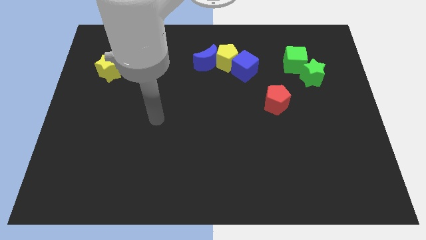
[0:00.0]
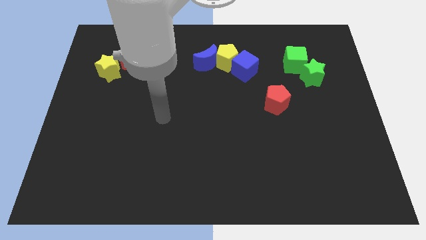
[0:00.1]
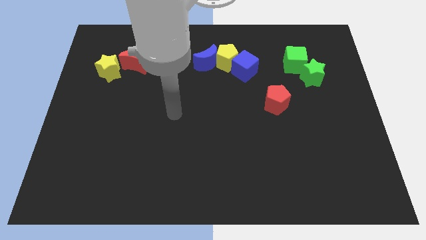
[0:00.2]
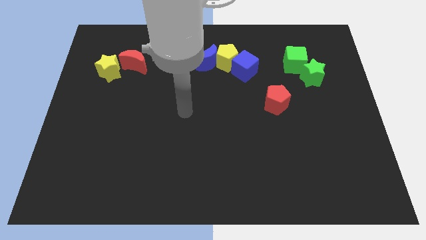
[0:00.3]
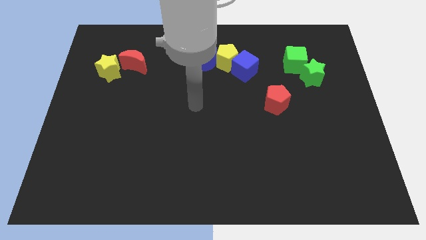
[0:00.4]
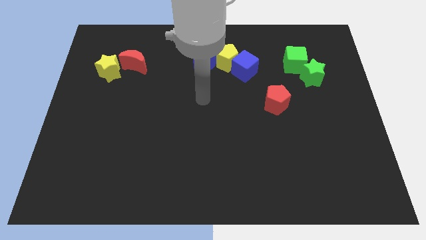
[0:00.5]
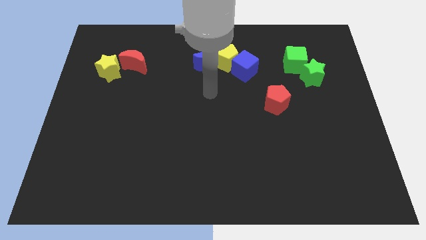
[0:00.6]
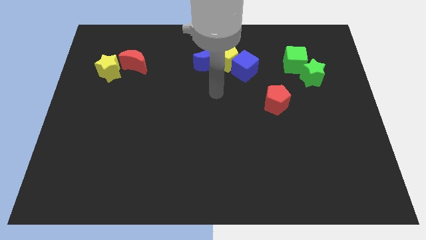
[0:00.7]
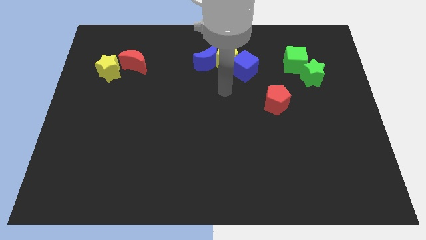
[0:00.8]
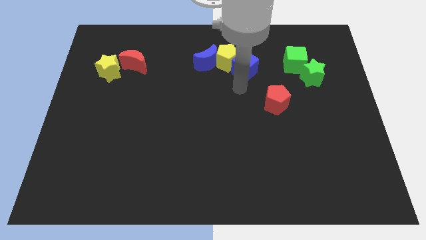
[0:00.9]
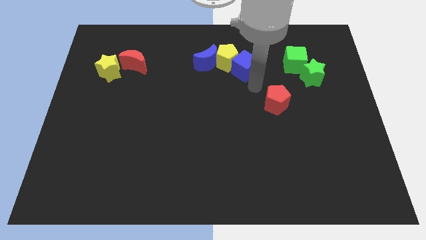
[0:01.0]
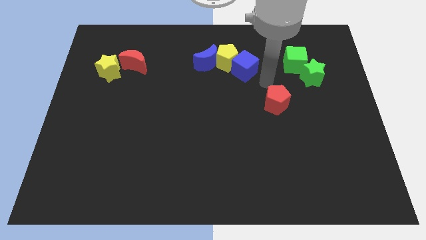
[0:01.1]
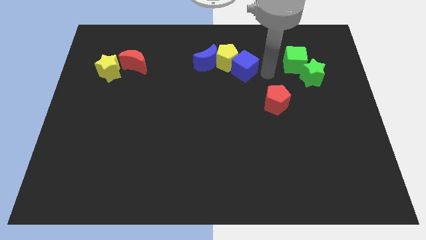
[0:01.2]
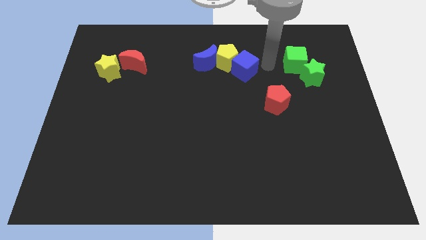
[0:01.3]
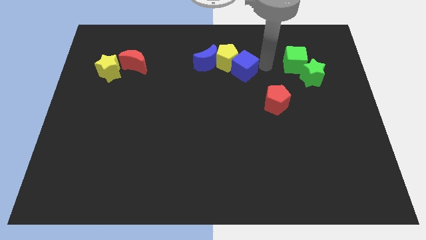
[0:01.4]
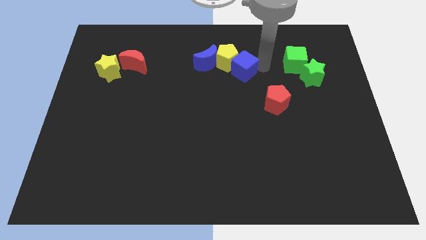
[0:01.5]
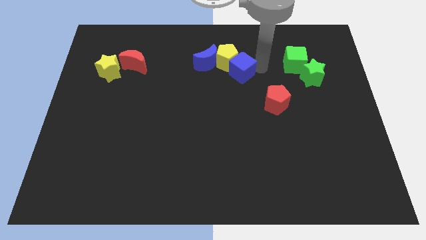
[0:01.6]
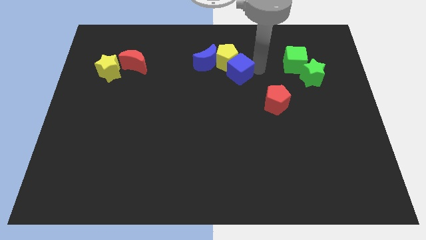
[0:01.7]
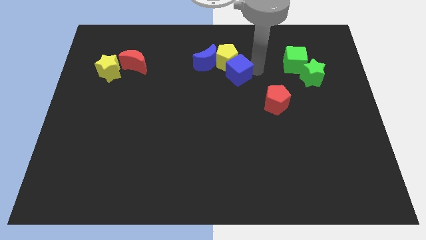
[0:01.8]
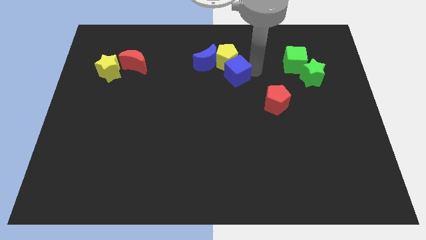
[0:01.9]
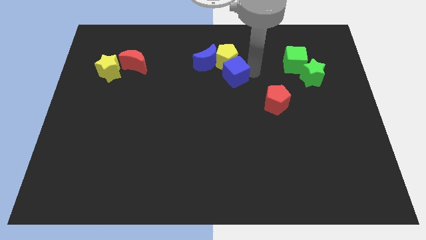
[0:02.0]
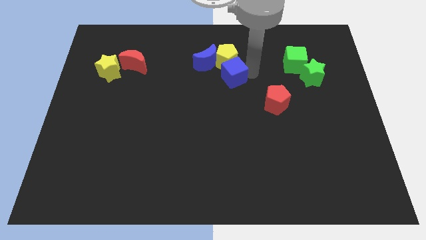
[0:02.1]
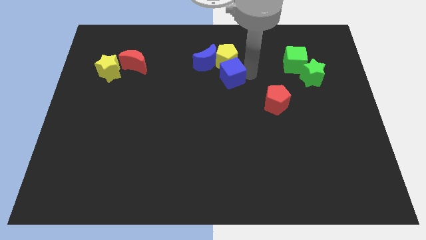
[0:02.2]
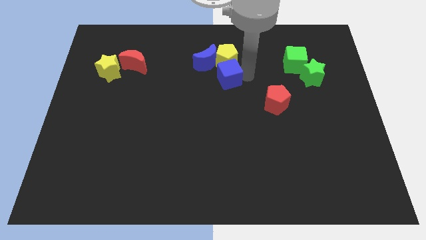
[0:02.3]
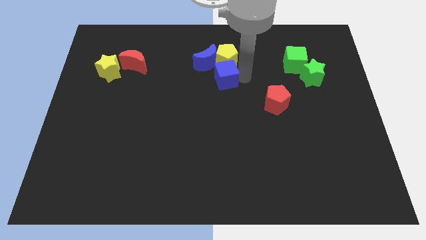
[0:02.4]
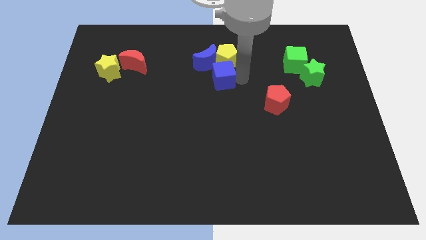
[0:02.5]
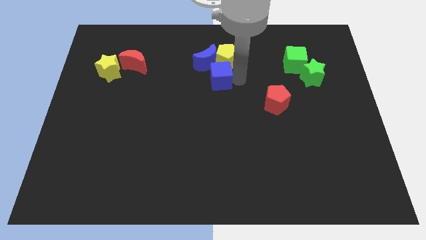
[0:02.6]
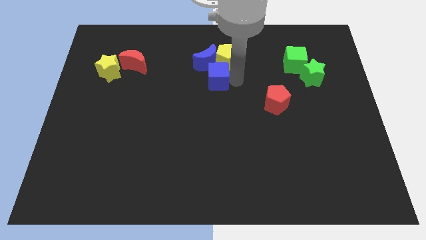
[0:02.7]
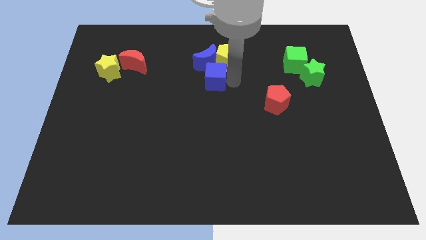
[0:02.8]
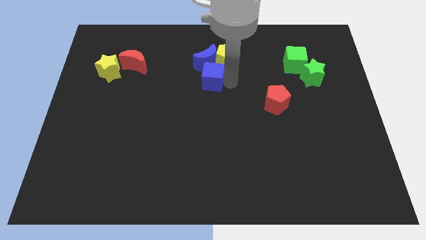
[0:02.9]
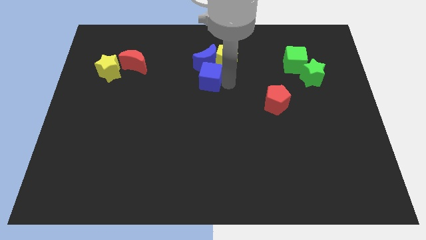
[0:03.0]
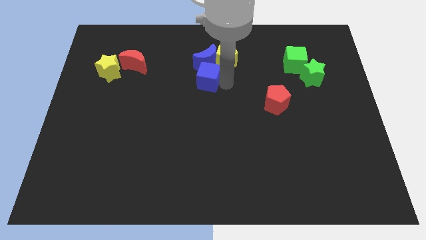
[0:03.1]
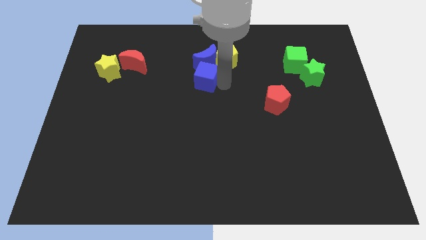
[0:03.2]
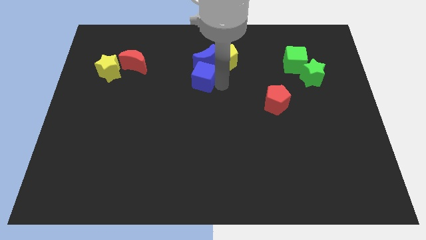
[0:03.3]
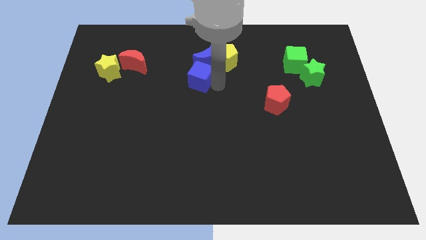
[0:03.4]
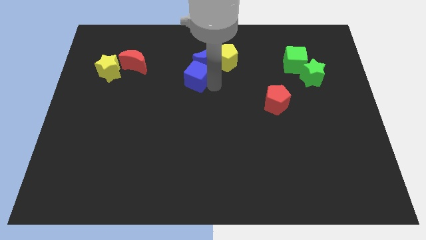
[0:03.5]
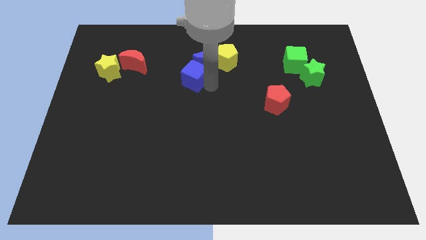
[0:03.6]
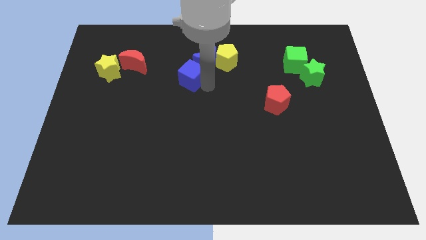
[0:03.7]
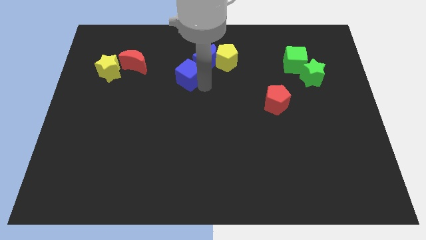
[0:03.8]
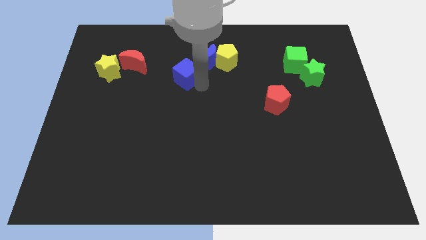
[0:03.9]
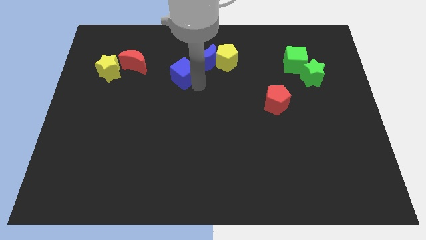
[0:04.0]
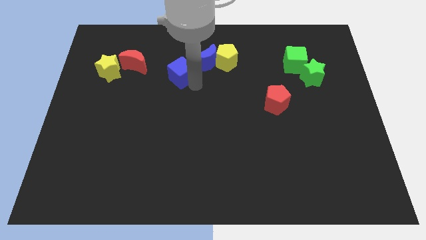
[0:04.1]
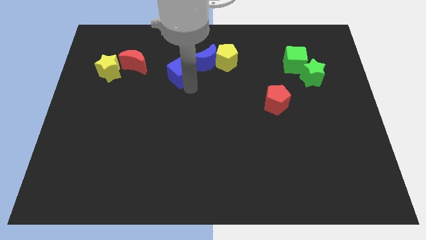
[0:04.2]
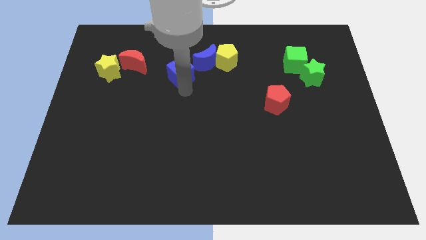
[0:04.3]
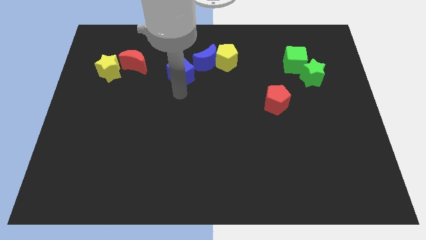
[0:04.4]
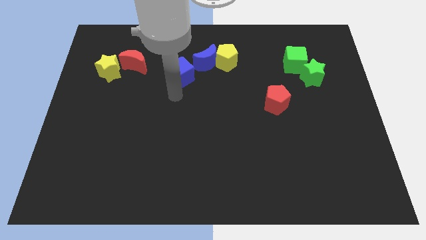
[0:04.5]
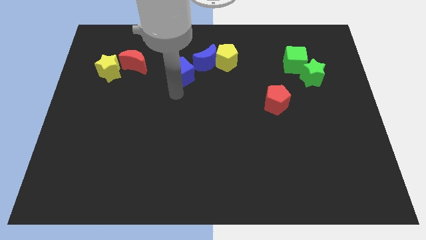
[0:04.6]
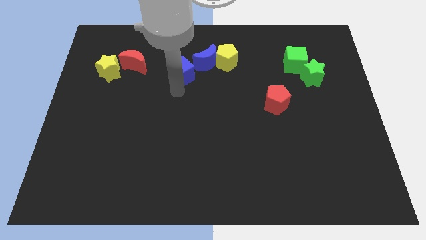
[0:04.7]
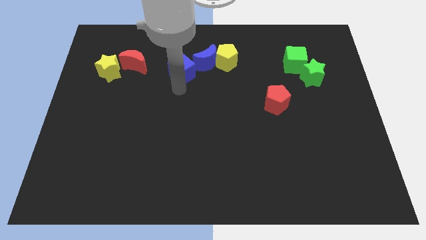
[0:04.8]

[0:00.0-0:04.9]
put the blue cube to the left of the yellow pentagon

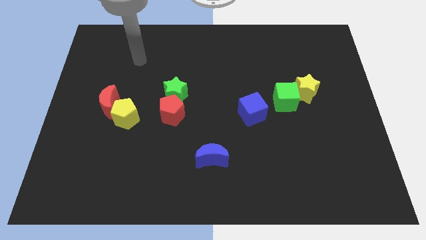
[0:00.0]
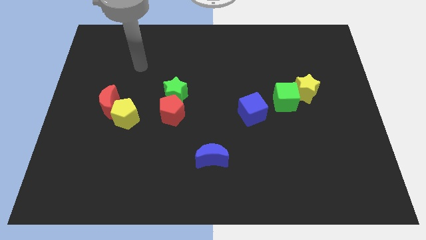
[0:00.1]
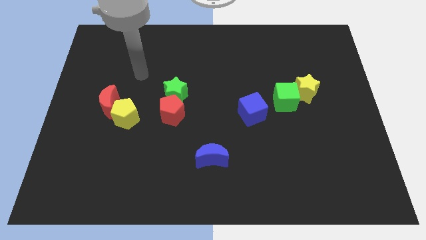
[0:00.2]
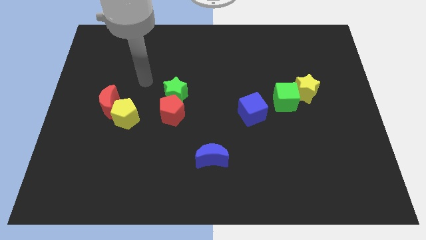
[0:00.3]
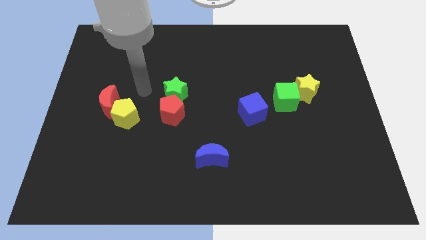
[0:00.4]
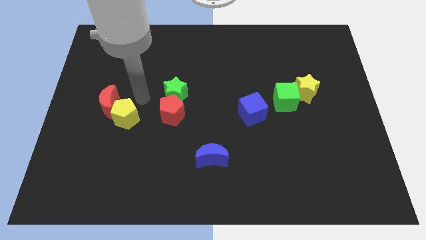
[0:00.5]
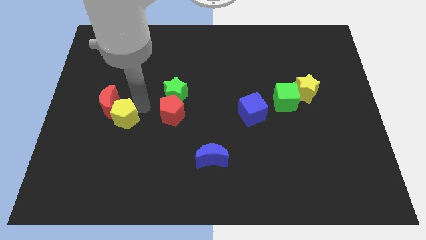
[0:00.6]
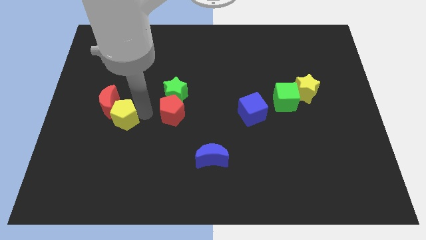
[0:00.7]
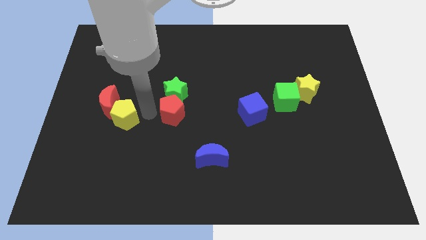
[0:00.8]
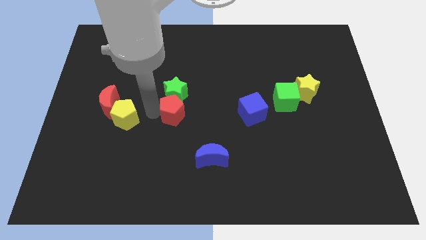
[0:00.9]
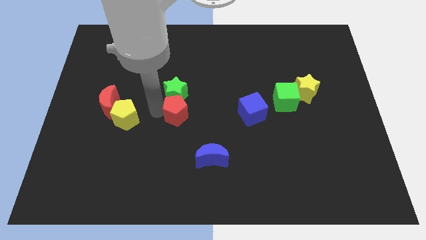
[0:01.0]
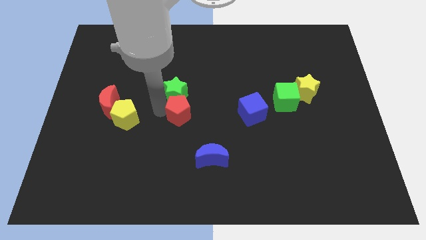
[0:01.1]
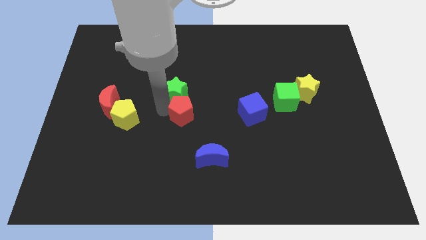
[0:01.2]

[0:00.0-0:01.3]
slide the red pentagon left of the blue cube
